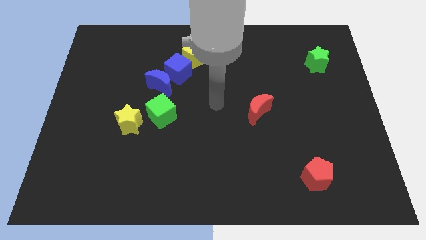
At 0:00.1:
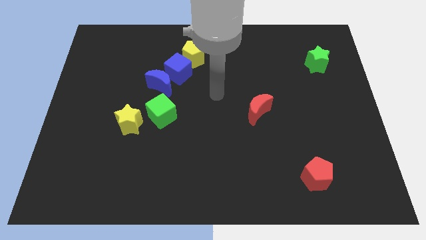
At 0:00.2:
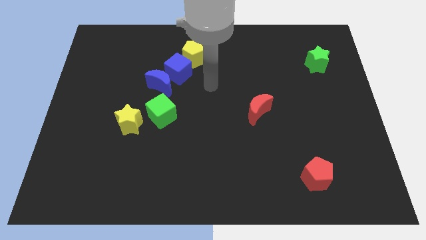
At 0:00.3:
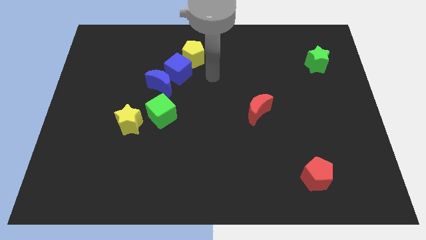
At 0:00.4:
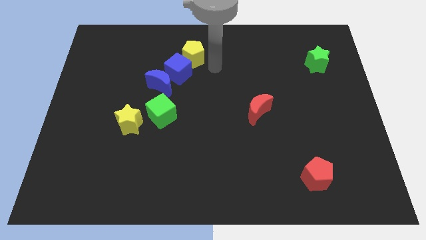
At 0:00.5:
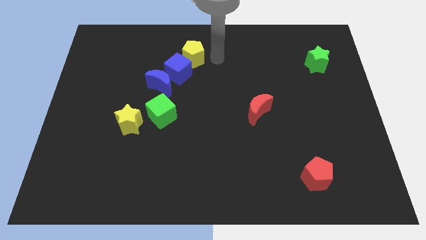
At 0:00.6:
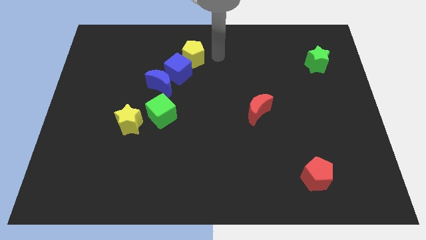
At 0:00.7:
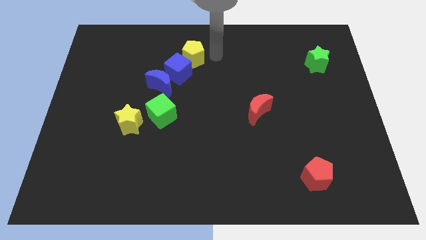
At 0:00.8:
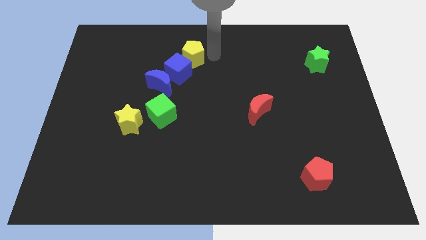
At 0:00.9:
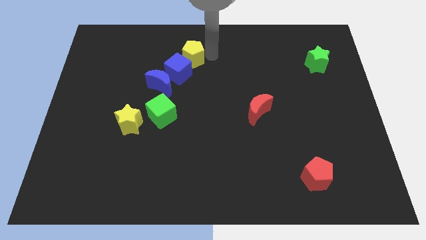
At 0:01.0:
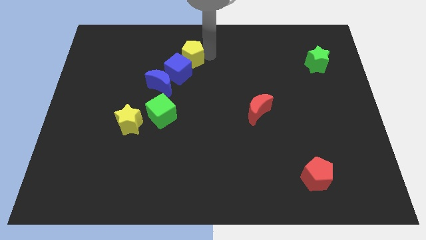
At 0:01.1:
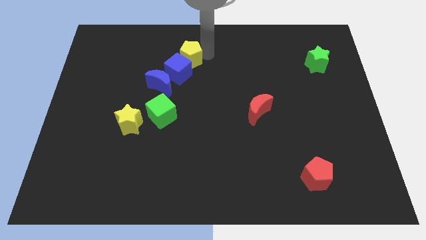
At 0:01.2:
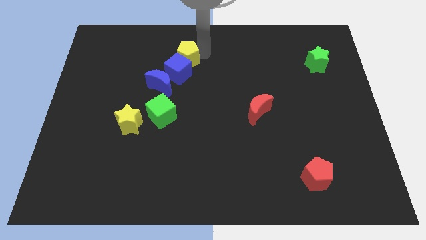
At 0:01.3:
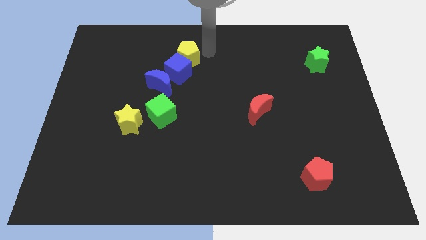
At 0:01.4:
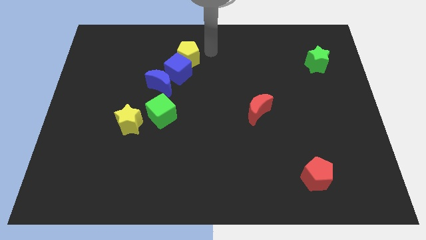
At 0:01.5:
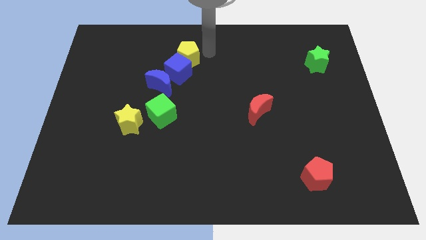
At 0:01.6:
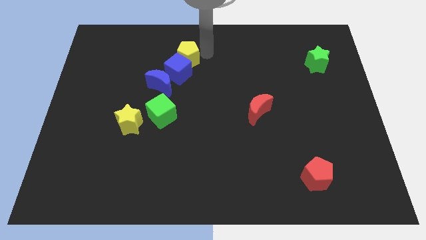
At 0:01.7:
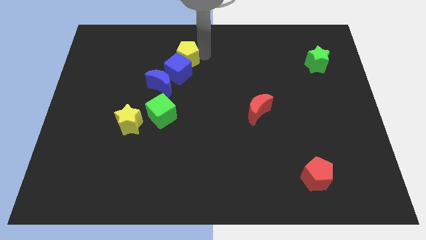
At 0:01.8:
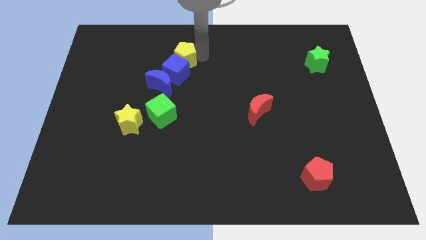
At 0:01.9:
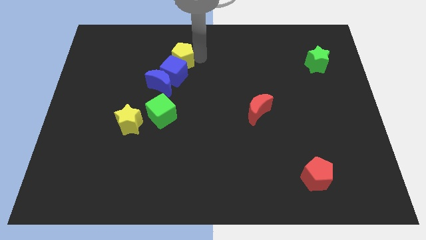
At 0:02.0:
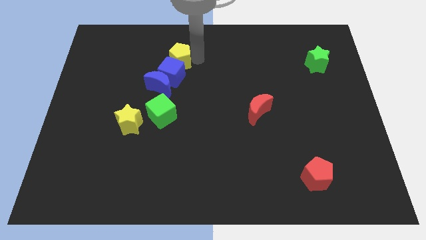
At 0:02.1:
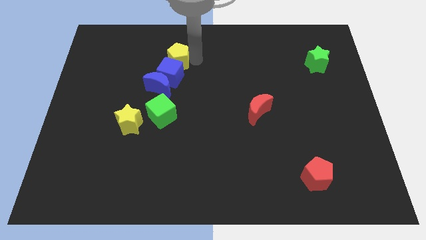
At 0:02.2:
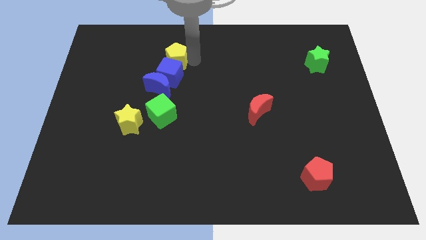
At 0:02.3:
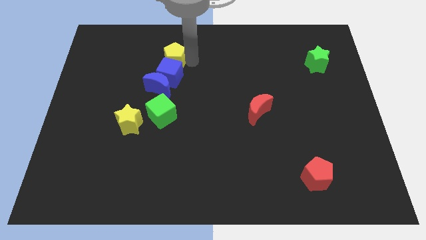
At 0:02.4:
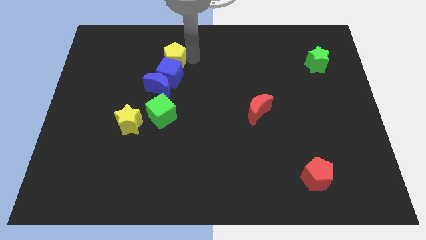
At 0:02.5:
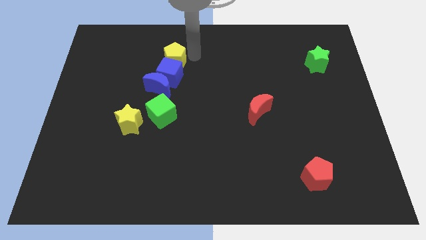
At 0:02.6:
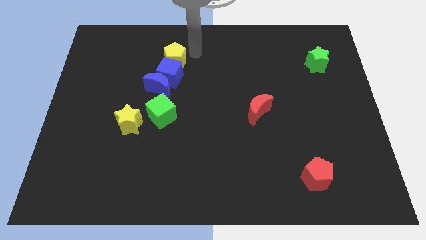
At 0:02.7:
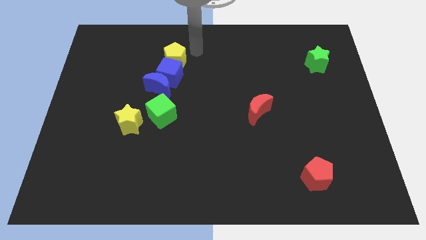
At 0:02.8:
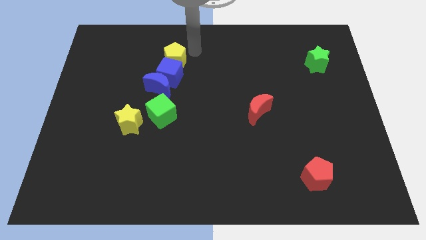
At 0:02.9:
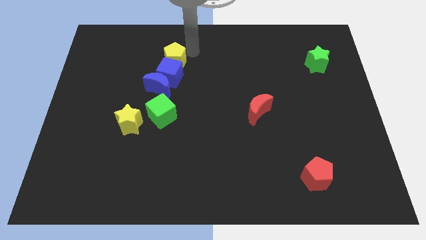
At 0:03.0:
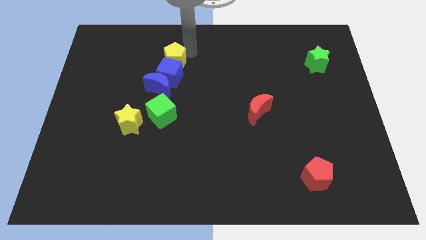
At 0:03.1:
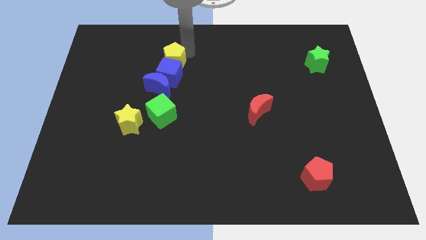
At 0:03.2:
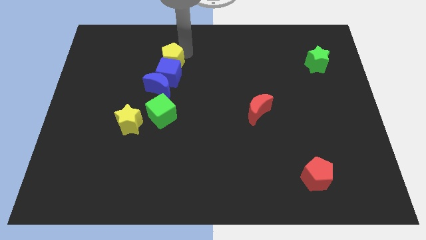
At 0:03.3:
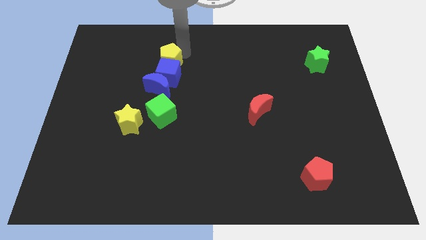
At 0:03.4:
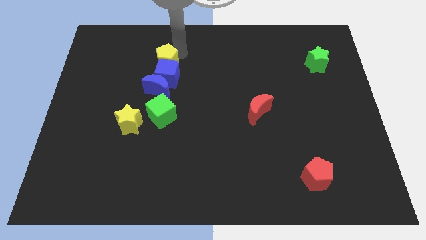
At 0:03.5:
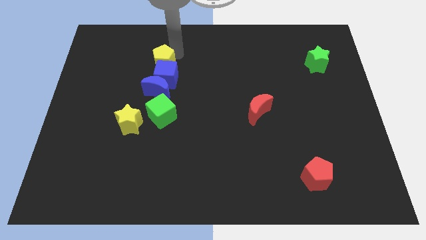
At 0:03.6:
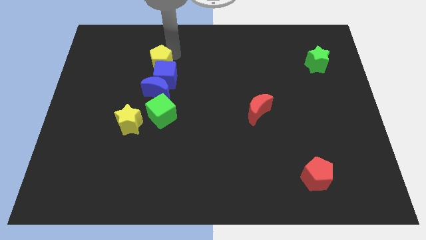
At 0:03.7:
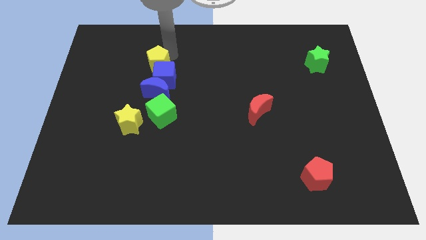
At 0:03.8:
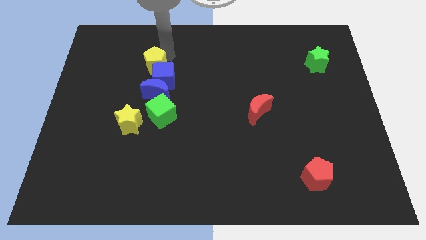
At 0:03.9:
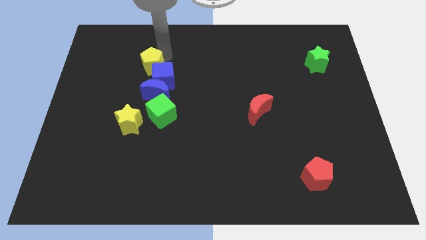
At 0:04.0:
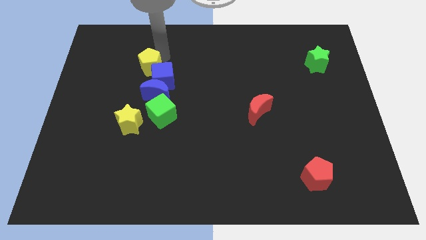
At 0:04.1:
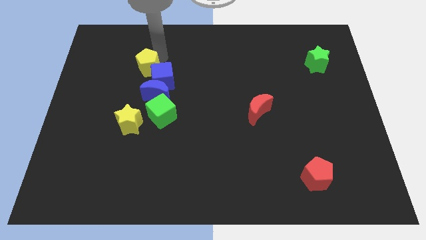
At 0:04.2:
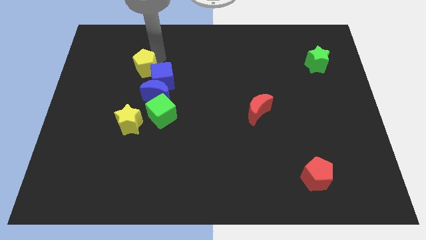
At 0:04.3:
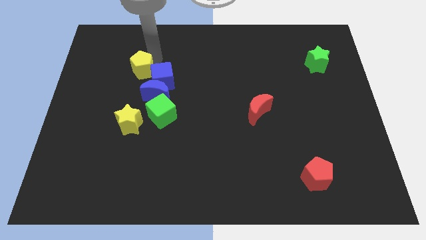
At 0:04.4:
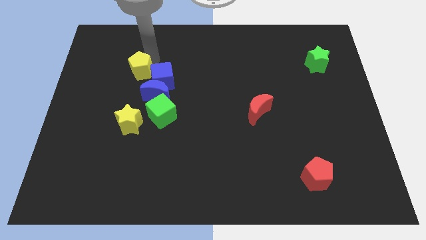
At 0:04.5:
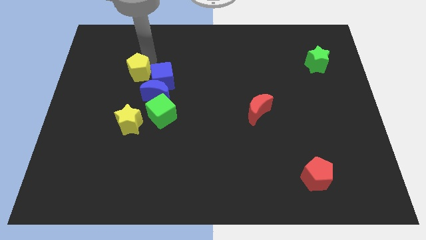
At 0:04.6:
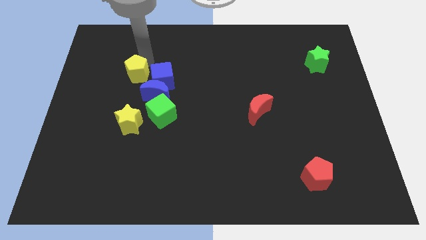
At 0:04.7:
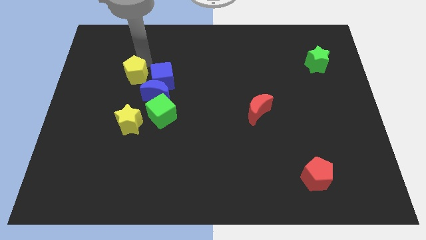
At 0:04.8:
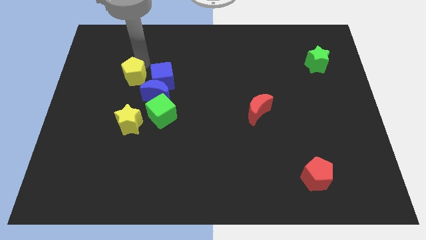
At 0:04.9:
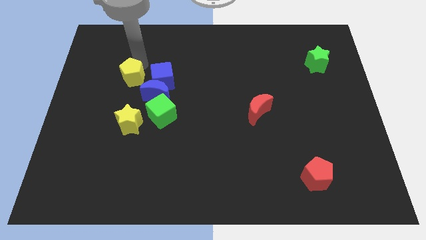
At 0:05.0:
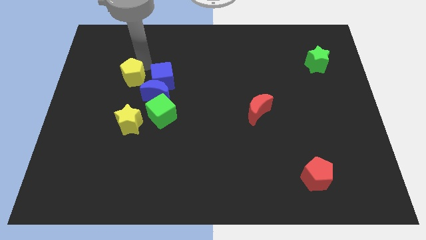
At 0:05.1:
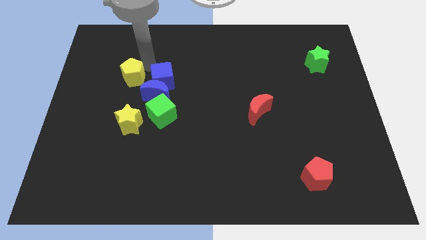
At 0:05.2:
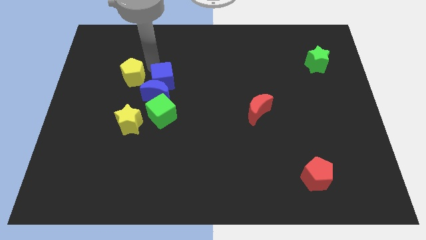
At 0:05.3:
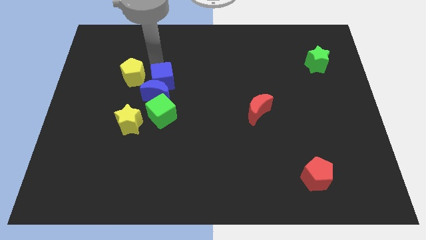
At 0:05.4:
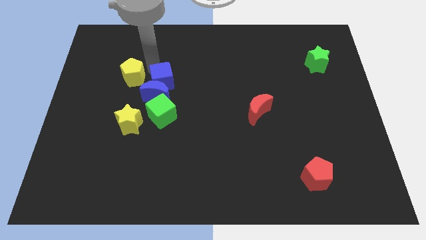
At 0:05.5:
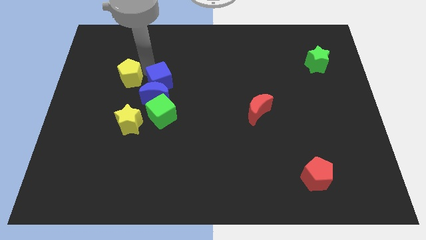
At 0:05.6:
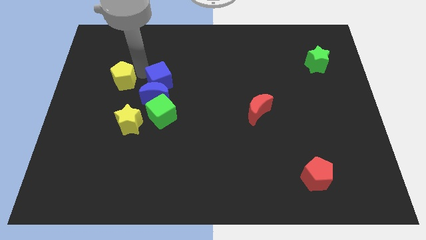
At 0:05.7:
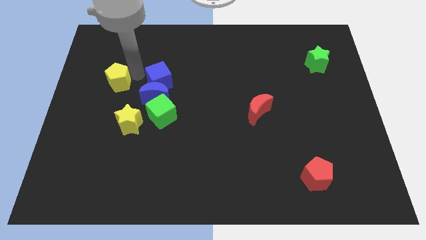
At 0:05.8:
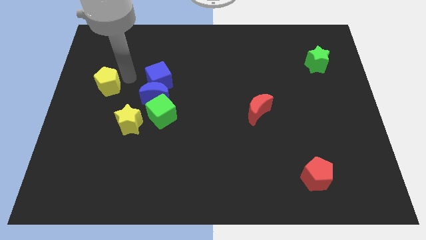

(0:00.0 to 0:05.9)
push the yellow pentagon to the center left

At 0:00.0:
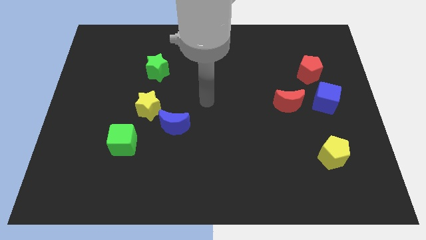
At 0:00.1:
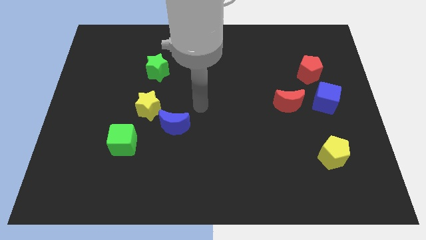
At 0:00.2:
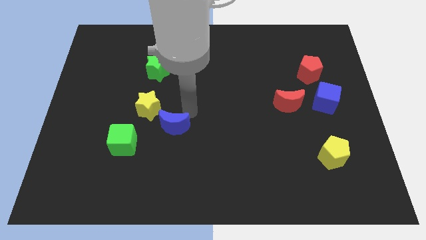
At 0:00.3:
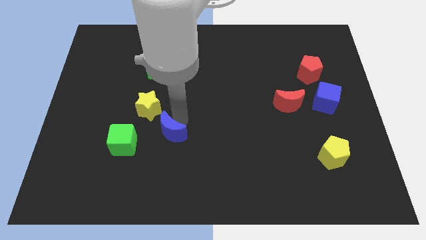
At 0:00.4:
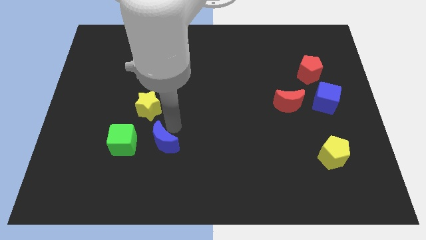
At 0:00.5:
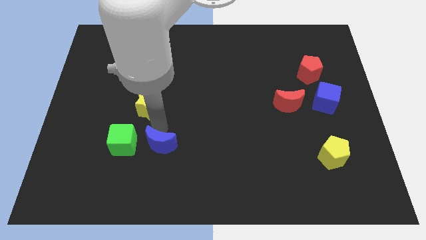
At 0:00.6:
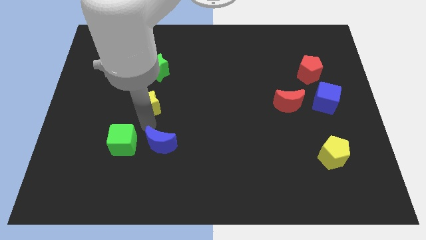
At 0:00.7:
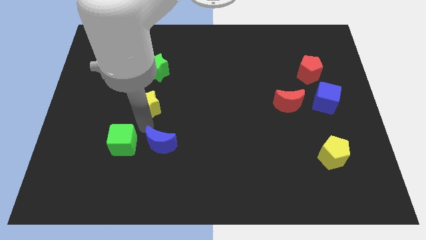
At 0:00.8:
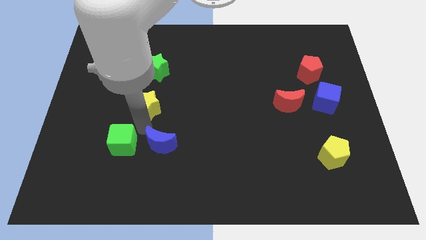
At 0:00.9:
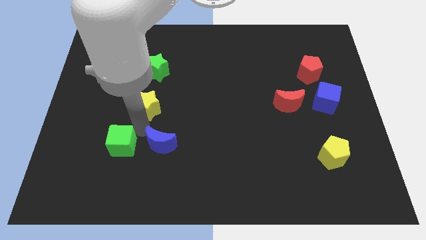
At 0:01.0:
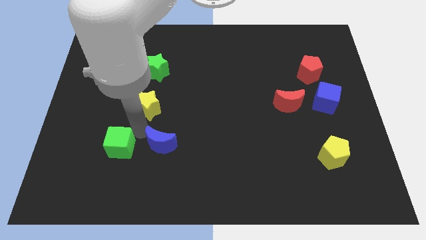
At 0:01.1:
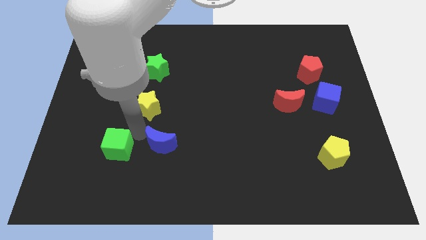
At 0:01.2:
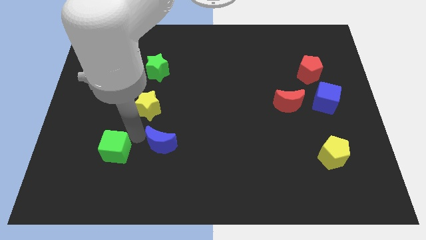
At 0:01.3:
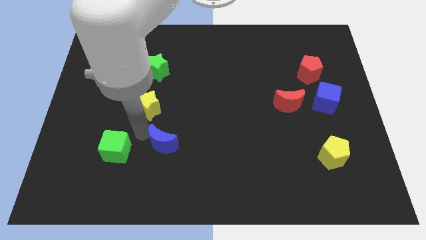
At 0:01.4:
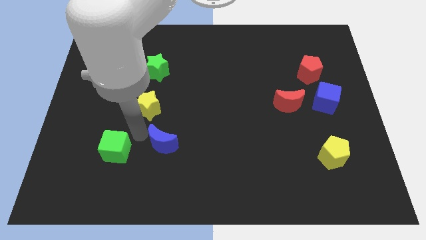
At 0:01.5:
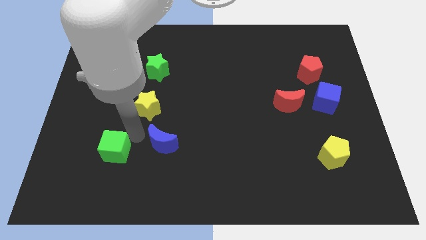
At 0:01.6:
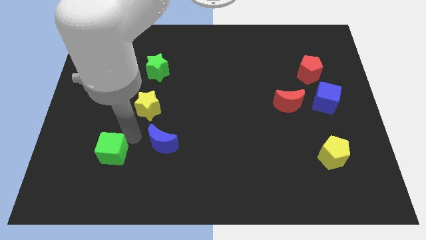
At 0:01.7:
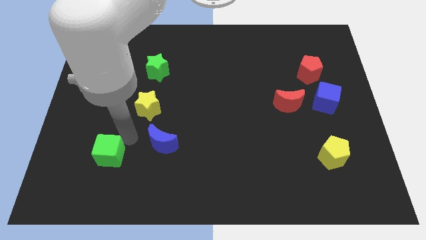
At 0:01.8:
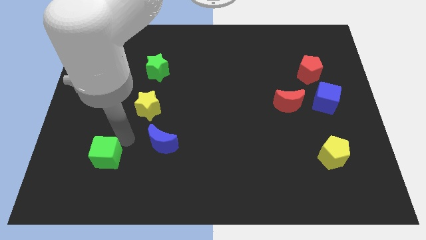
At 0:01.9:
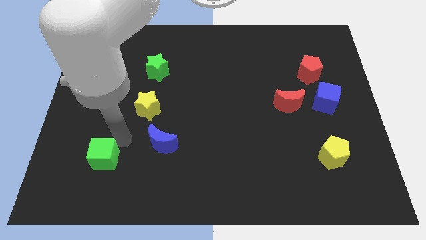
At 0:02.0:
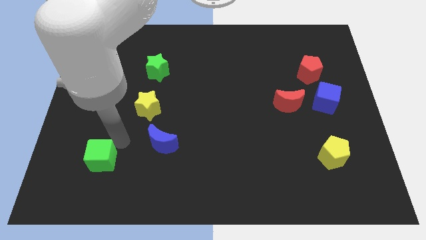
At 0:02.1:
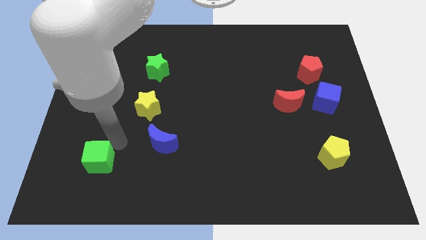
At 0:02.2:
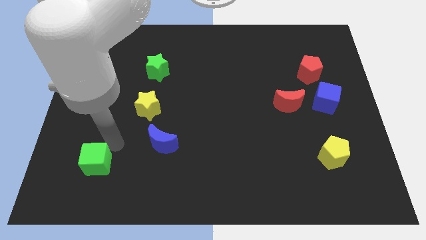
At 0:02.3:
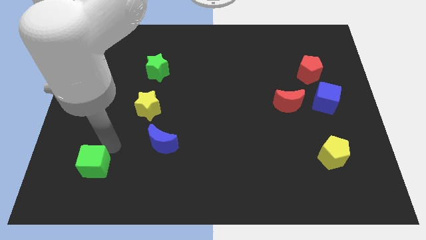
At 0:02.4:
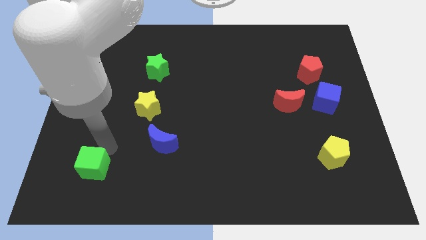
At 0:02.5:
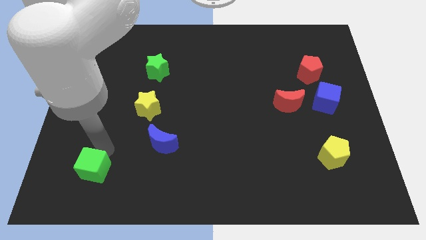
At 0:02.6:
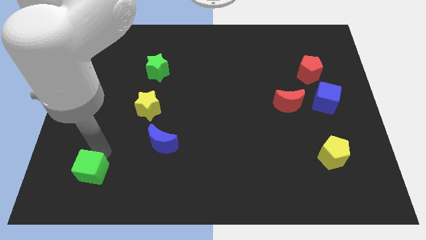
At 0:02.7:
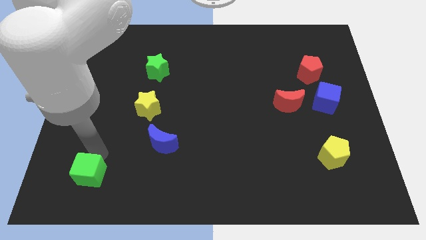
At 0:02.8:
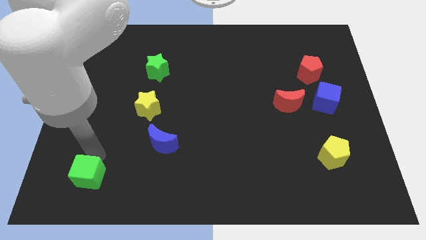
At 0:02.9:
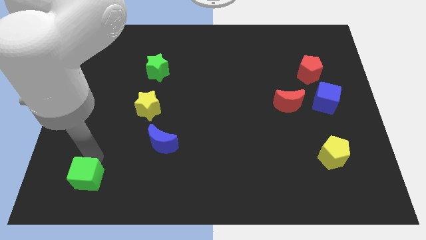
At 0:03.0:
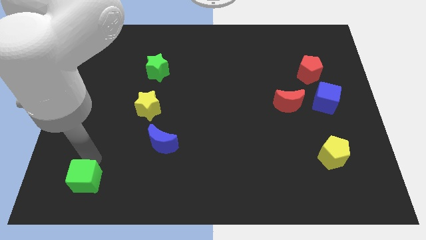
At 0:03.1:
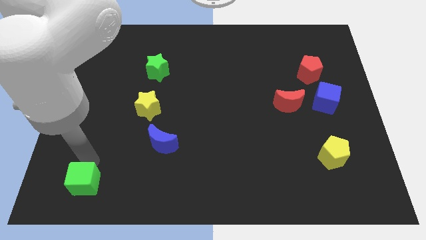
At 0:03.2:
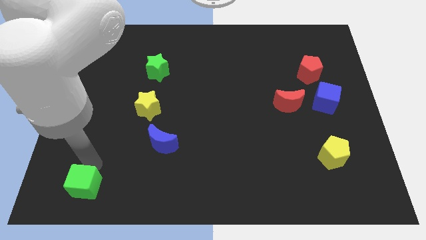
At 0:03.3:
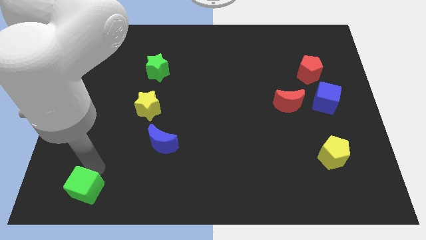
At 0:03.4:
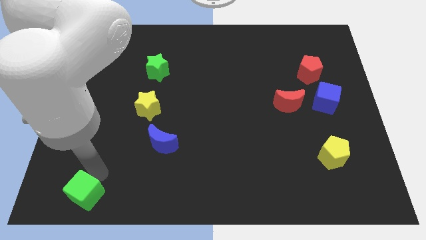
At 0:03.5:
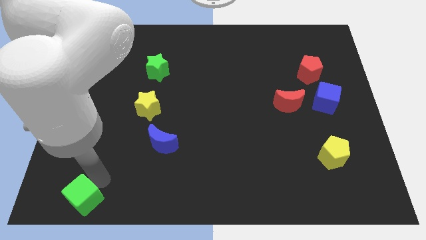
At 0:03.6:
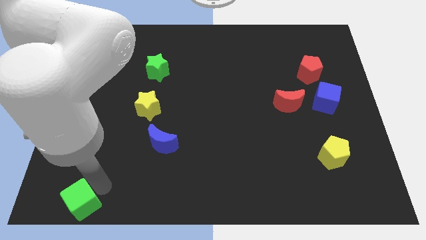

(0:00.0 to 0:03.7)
put the green cube to the bottom left
